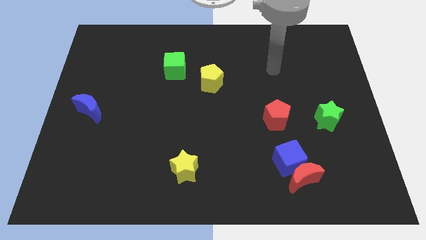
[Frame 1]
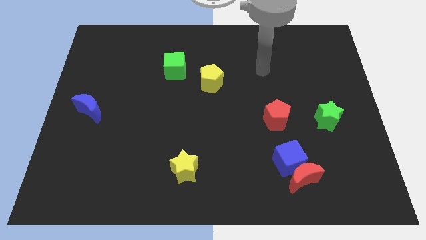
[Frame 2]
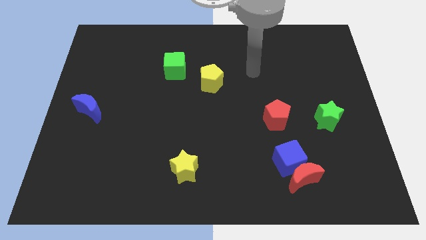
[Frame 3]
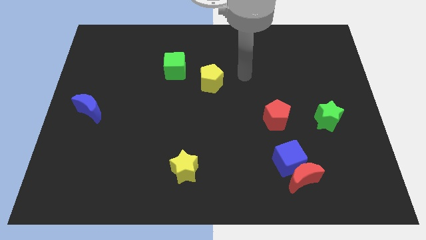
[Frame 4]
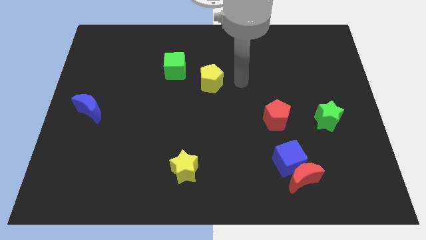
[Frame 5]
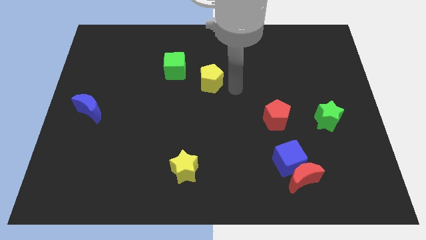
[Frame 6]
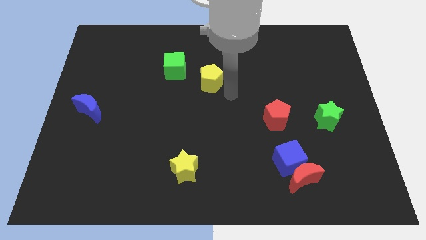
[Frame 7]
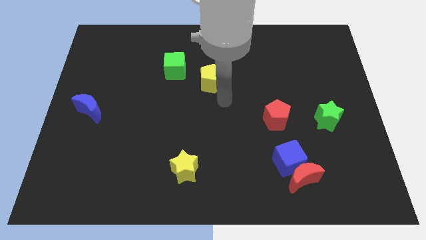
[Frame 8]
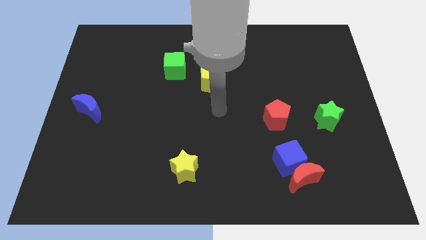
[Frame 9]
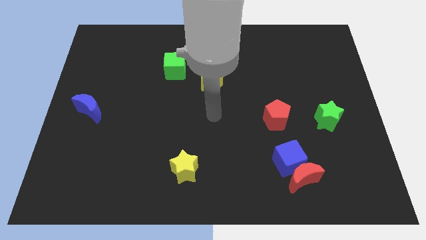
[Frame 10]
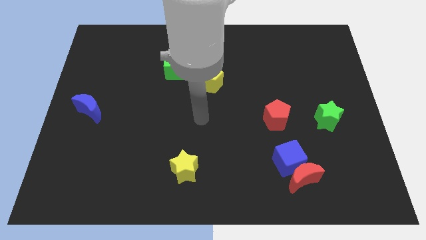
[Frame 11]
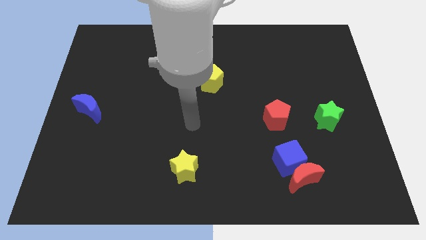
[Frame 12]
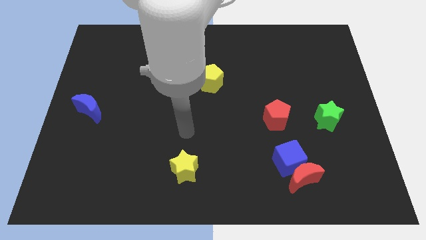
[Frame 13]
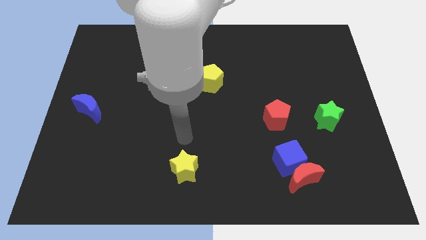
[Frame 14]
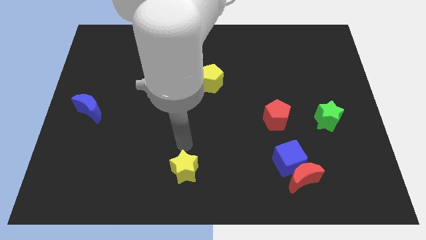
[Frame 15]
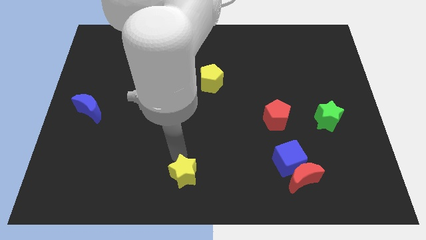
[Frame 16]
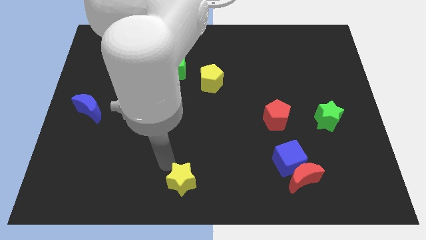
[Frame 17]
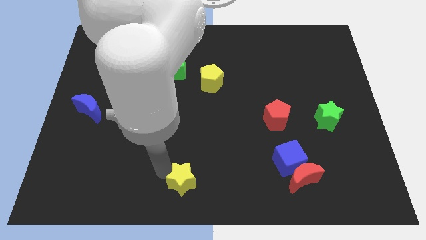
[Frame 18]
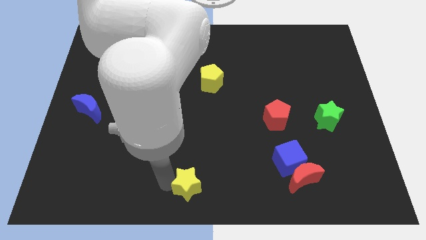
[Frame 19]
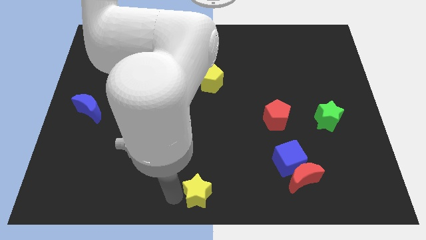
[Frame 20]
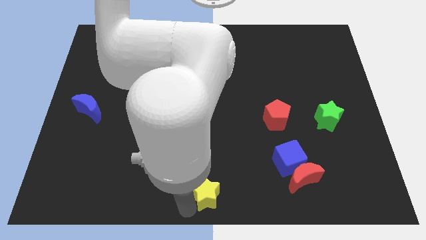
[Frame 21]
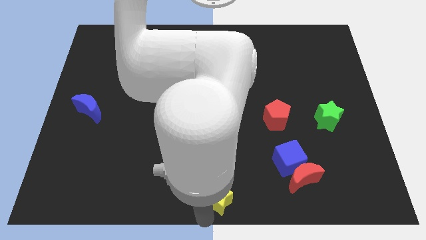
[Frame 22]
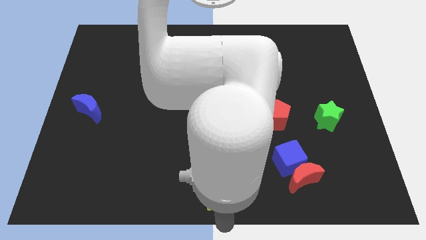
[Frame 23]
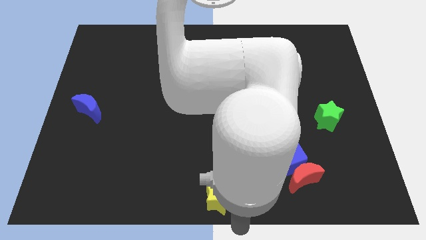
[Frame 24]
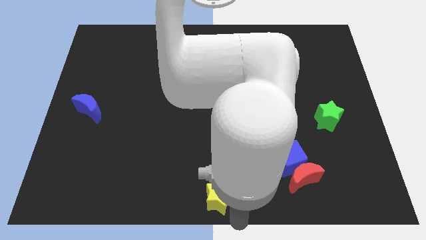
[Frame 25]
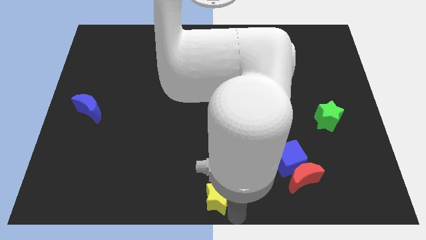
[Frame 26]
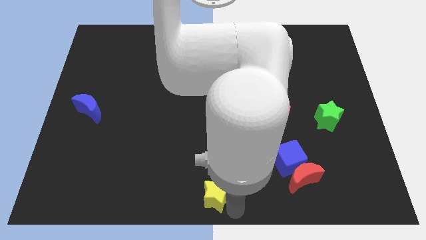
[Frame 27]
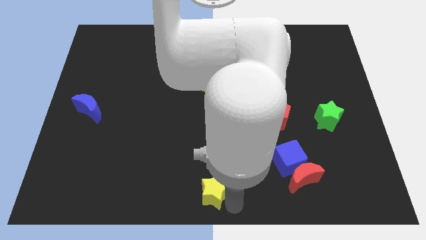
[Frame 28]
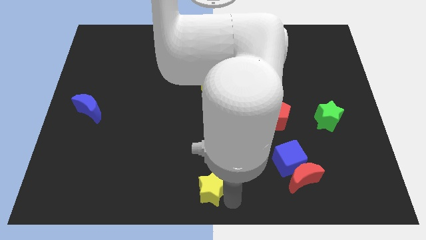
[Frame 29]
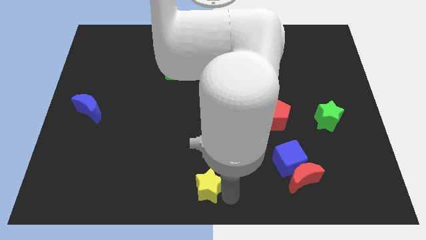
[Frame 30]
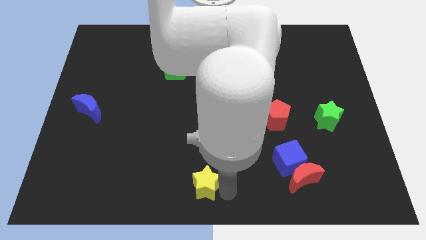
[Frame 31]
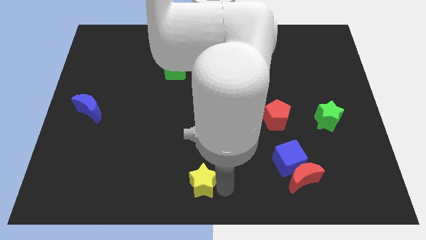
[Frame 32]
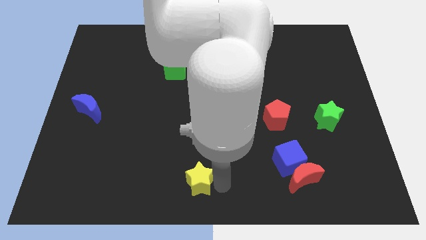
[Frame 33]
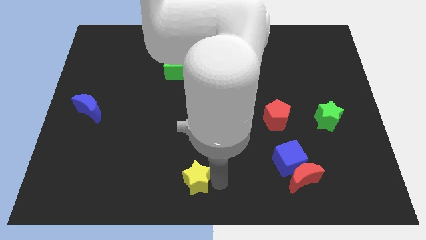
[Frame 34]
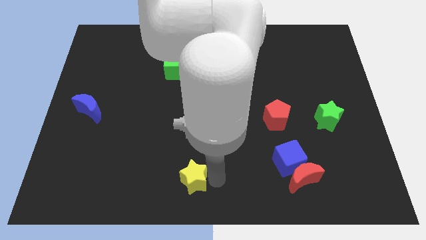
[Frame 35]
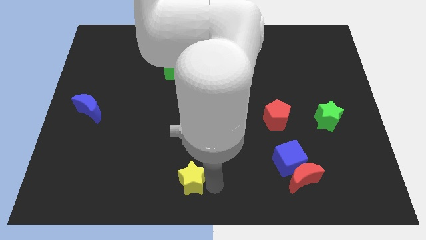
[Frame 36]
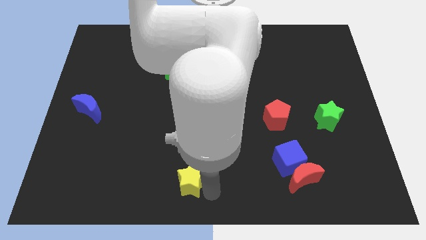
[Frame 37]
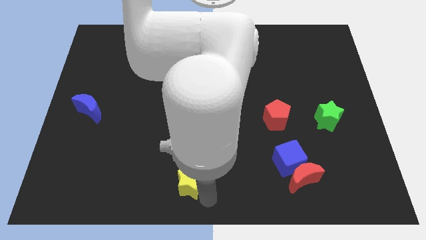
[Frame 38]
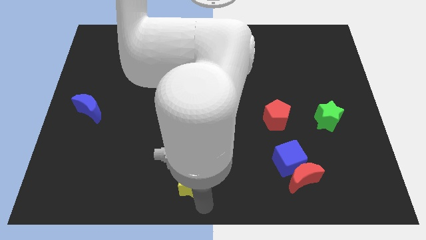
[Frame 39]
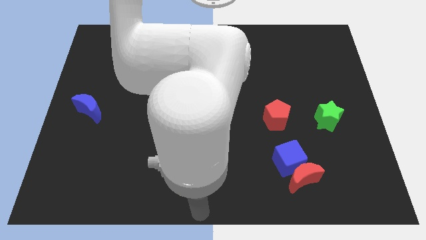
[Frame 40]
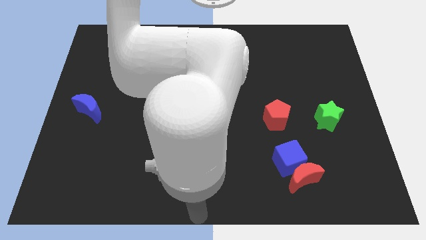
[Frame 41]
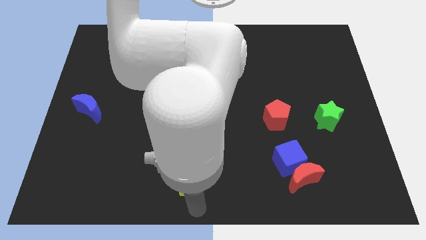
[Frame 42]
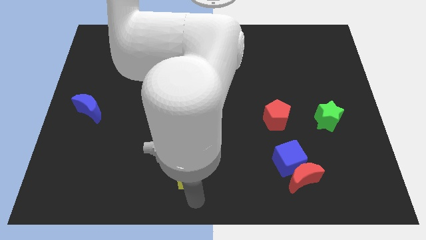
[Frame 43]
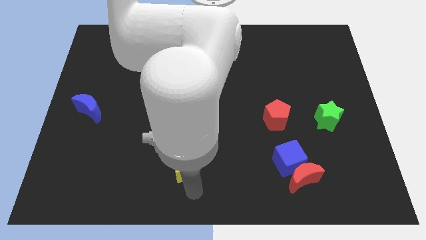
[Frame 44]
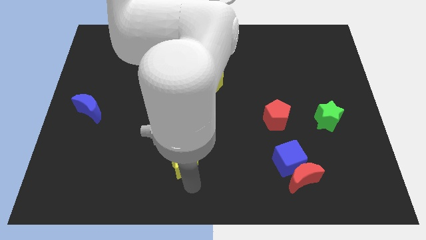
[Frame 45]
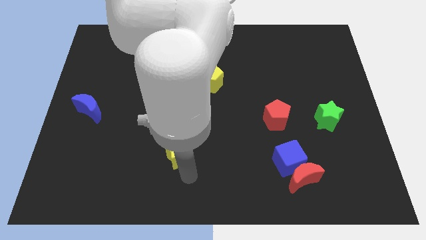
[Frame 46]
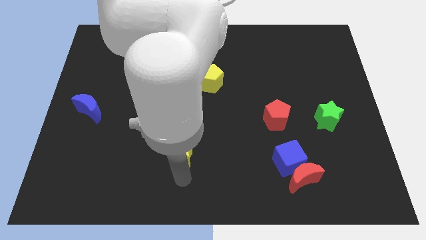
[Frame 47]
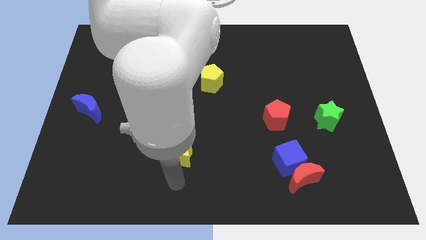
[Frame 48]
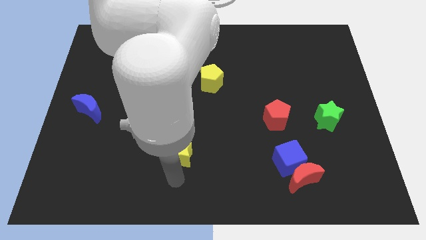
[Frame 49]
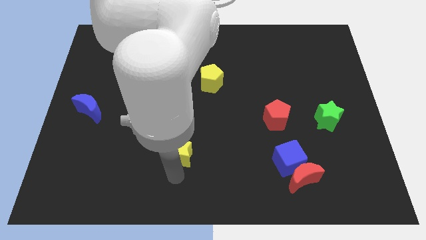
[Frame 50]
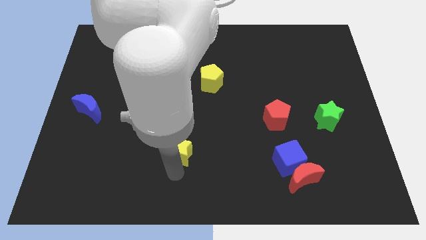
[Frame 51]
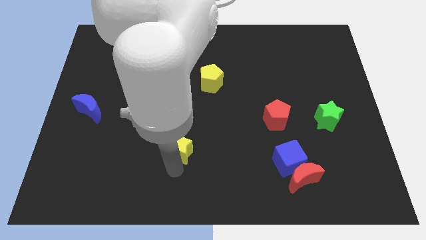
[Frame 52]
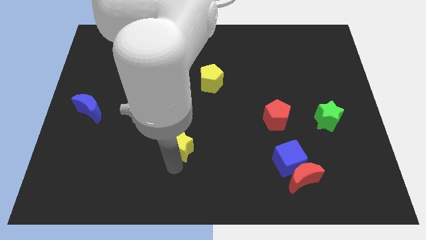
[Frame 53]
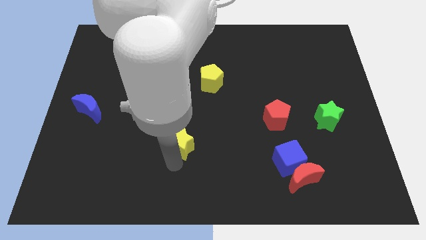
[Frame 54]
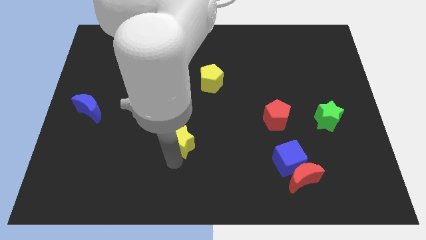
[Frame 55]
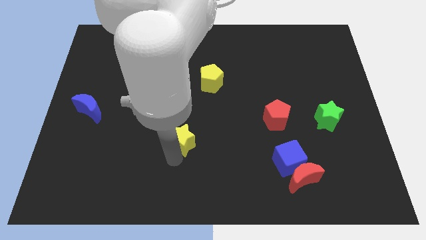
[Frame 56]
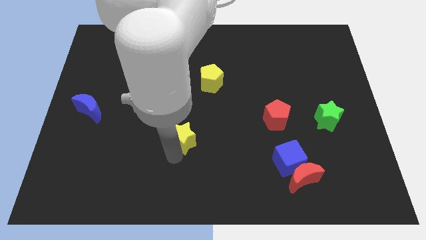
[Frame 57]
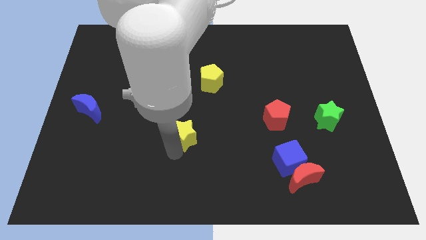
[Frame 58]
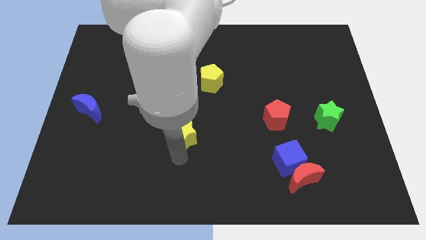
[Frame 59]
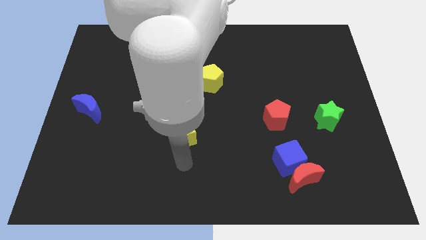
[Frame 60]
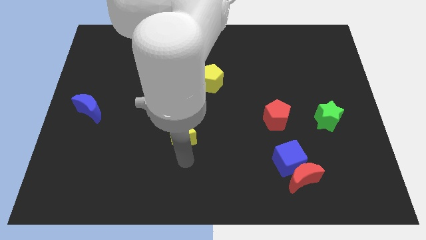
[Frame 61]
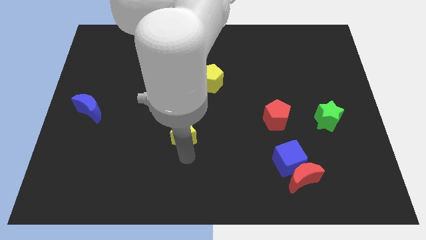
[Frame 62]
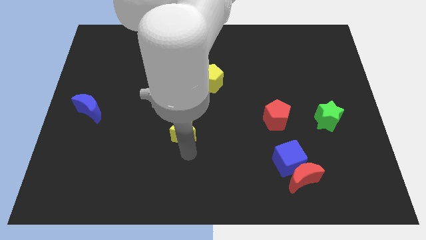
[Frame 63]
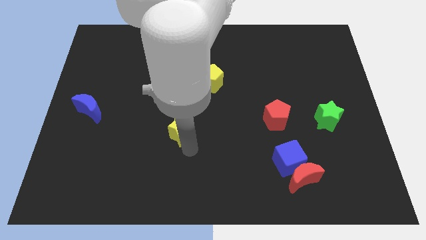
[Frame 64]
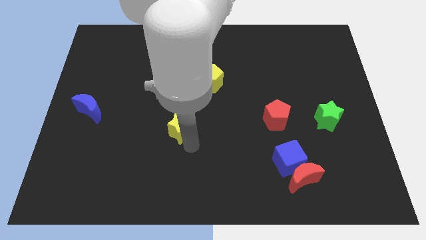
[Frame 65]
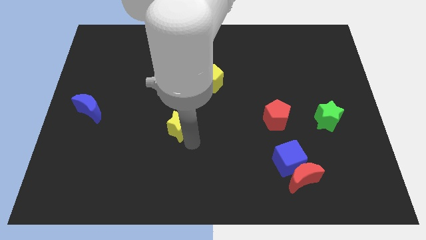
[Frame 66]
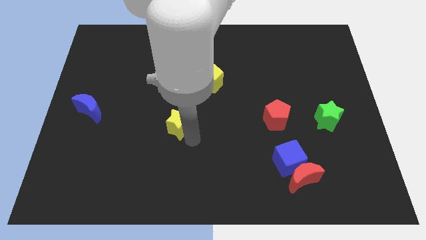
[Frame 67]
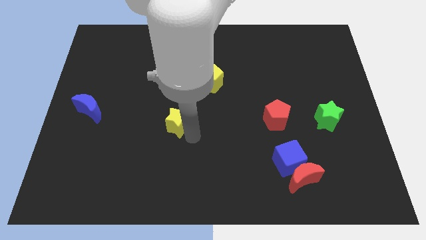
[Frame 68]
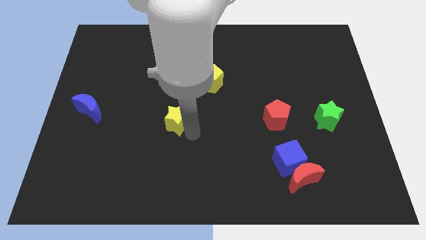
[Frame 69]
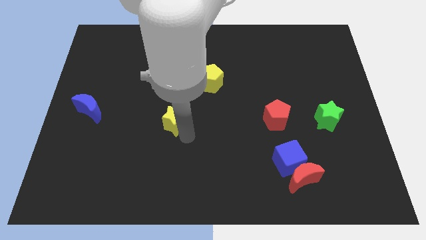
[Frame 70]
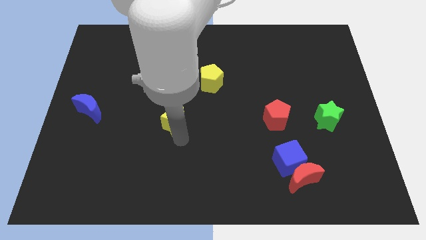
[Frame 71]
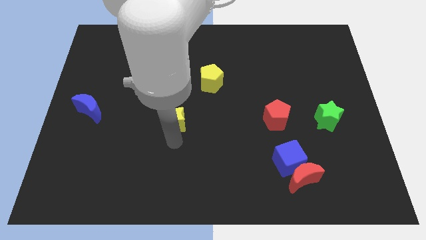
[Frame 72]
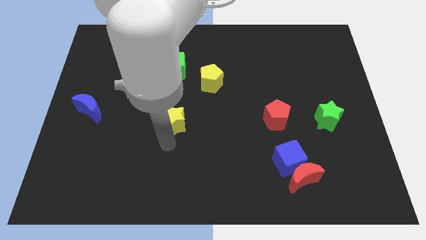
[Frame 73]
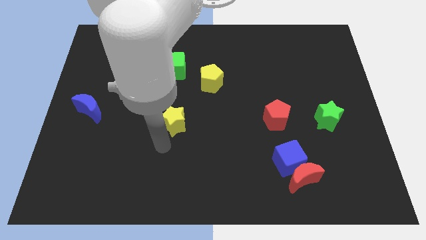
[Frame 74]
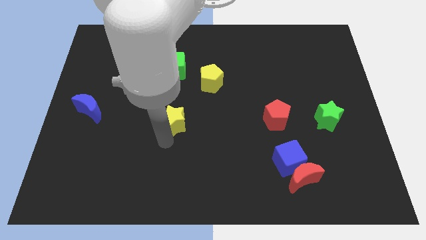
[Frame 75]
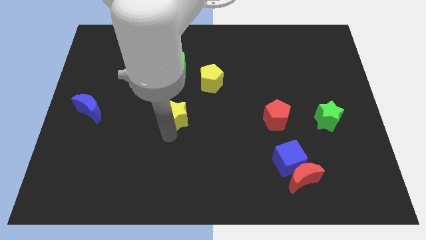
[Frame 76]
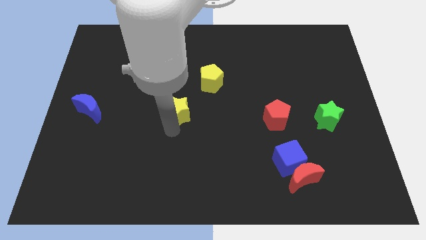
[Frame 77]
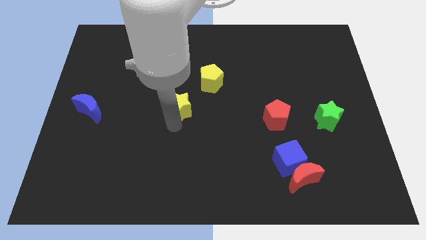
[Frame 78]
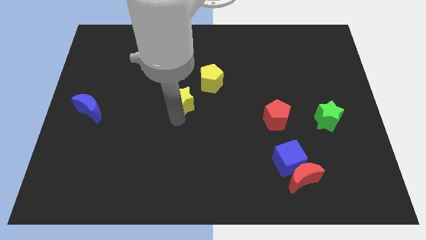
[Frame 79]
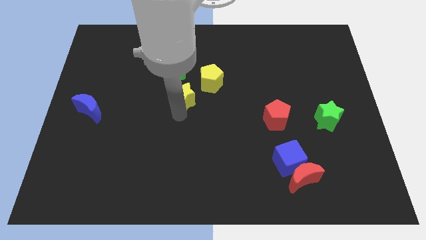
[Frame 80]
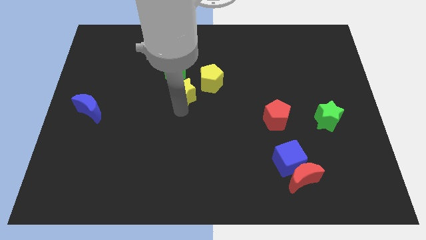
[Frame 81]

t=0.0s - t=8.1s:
push the yellow star up
